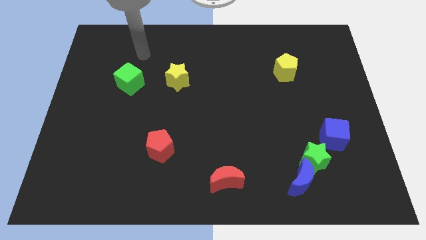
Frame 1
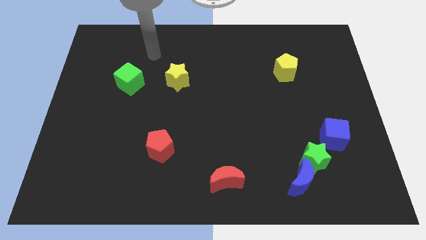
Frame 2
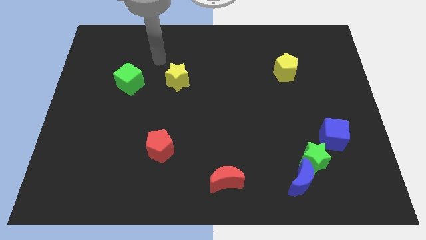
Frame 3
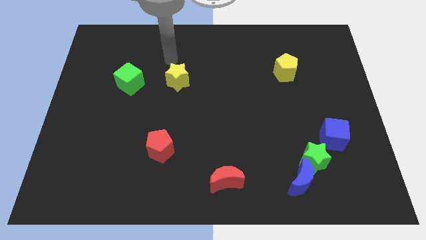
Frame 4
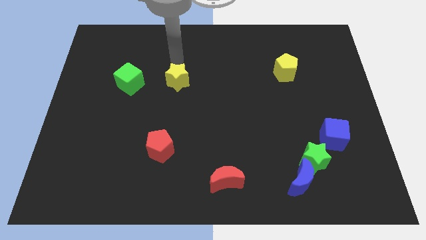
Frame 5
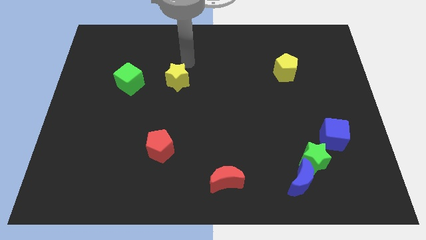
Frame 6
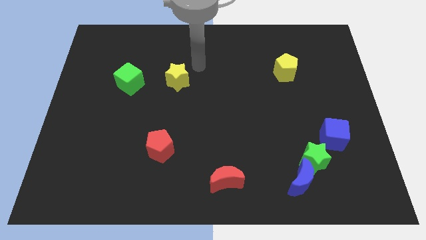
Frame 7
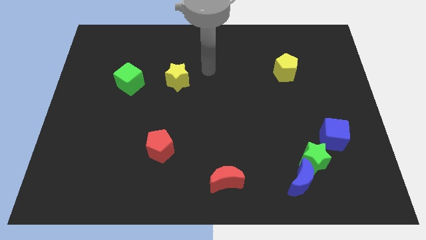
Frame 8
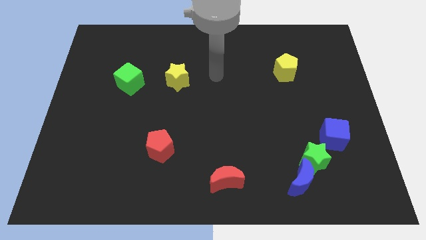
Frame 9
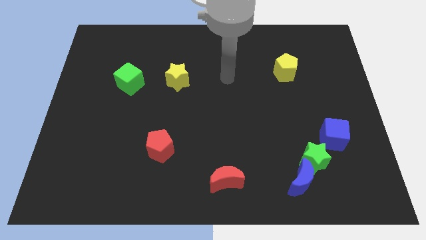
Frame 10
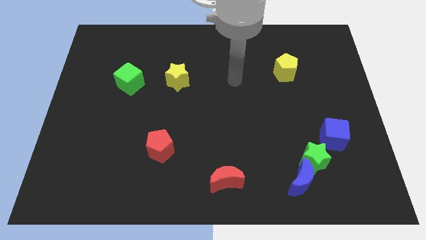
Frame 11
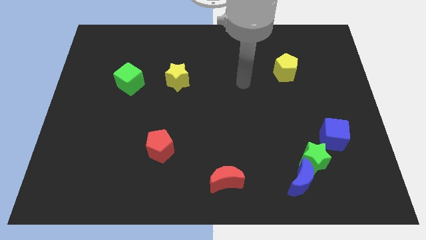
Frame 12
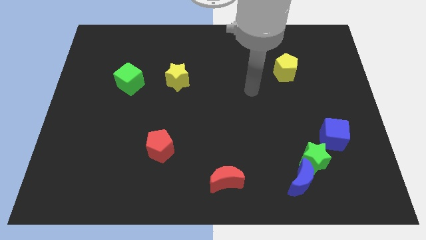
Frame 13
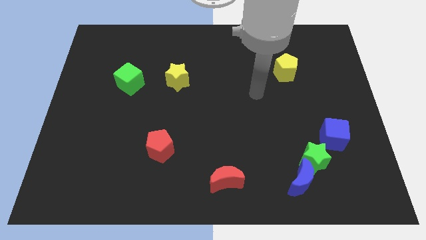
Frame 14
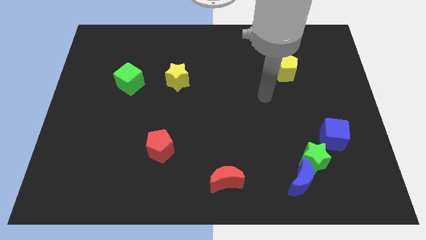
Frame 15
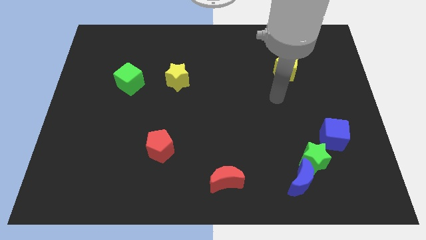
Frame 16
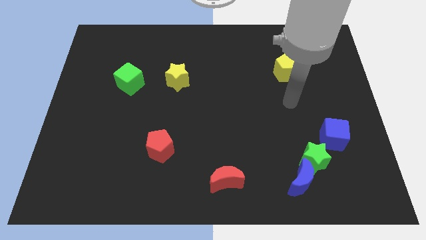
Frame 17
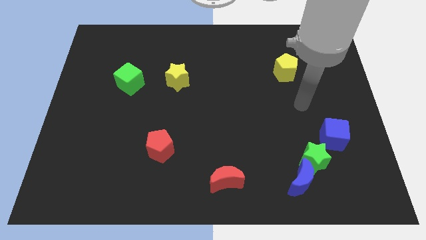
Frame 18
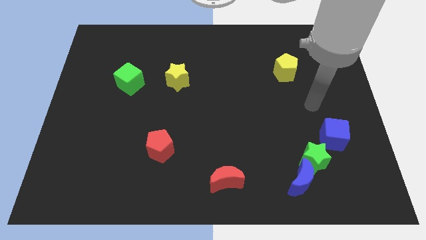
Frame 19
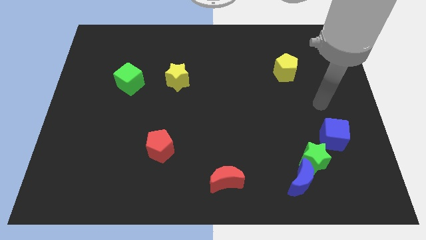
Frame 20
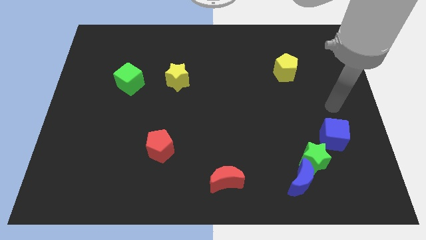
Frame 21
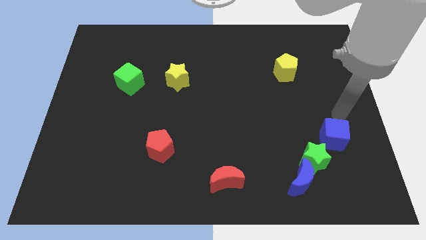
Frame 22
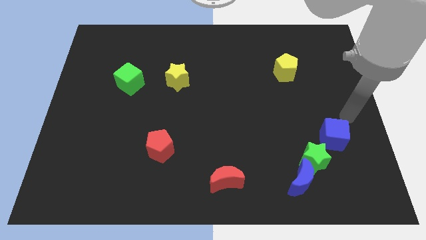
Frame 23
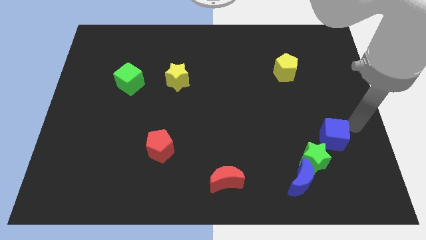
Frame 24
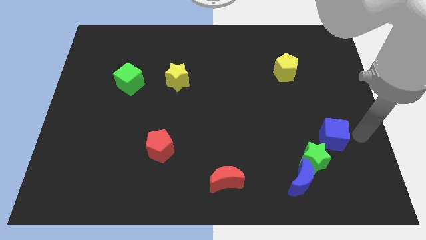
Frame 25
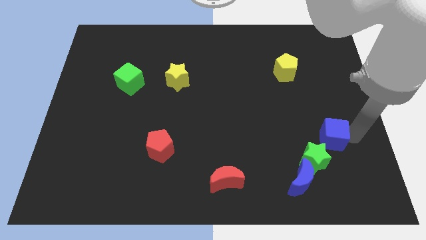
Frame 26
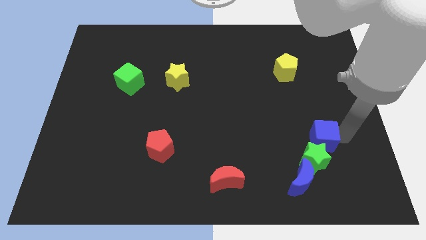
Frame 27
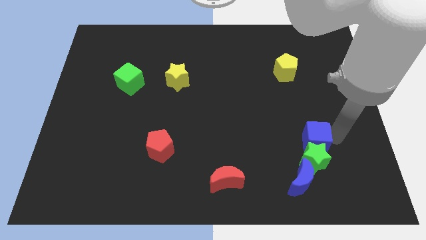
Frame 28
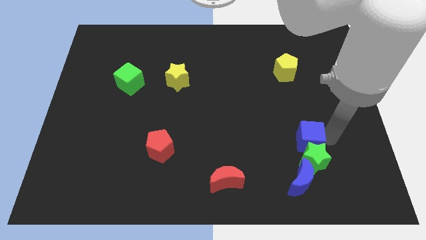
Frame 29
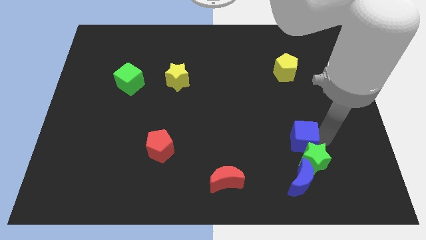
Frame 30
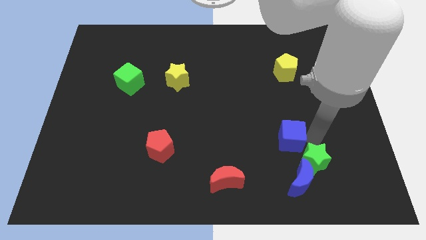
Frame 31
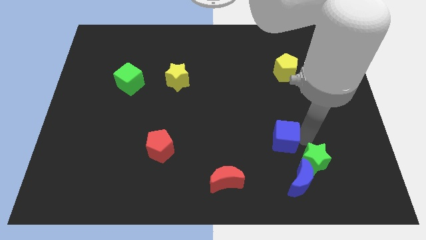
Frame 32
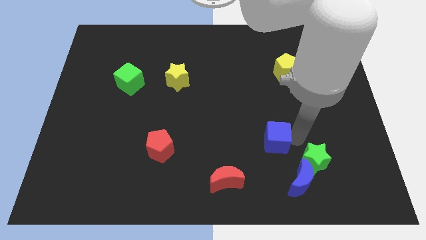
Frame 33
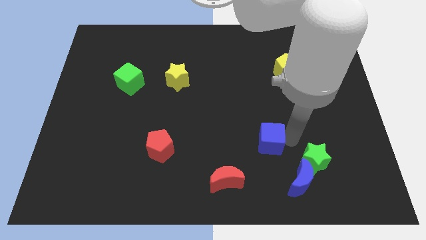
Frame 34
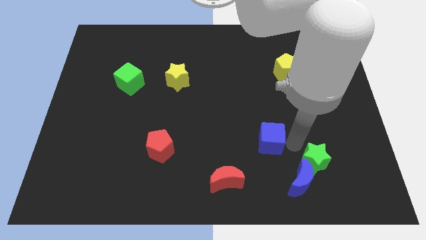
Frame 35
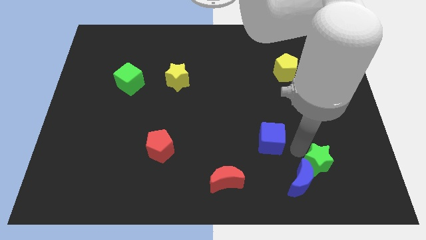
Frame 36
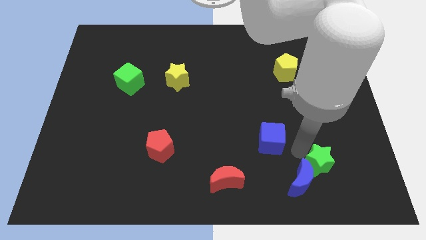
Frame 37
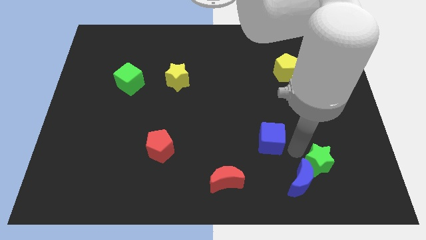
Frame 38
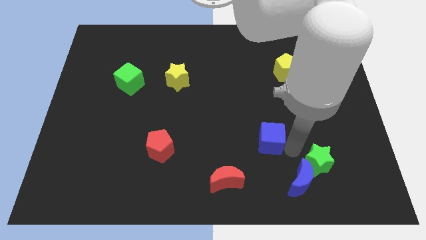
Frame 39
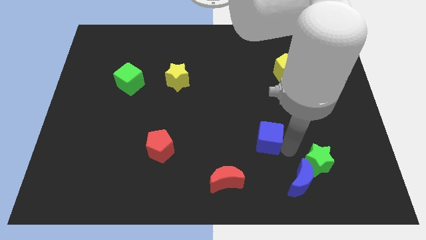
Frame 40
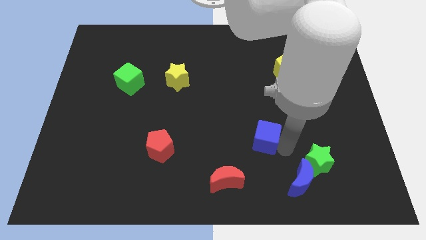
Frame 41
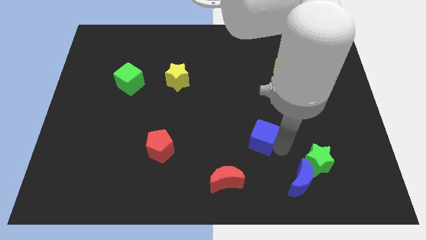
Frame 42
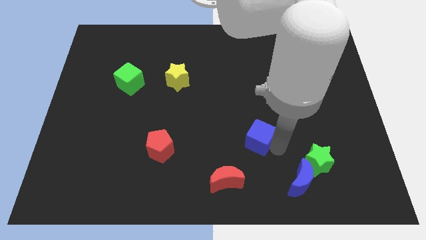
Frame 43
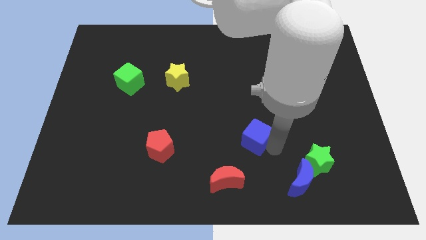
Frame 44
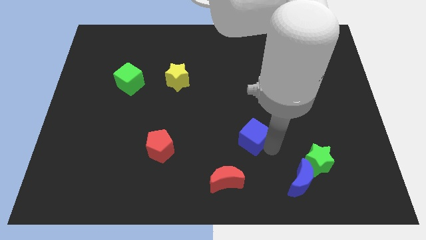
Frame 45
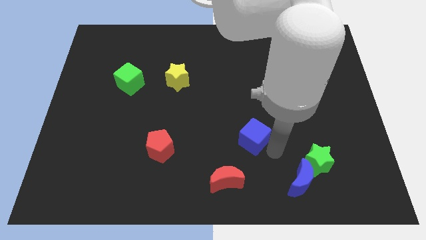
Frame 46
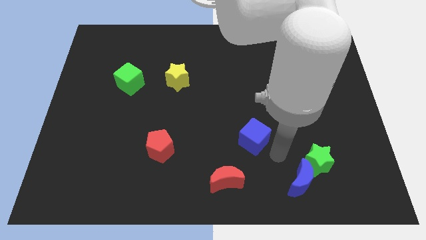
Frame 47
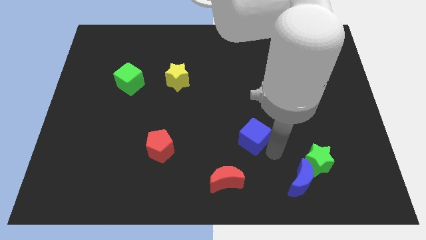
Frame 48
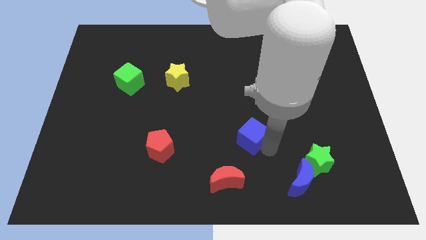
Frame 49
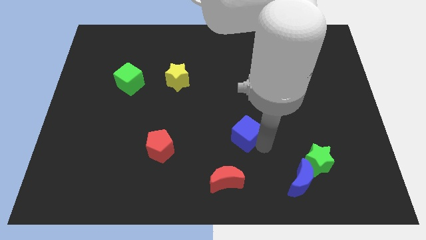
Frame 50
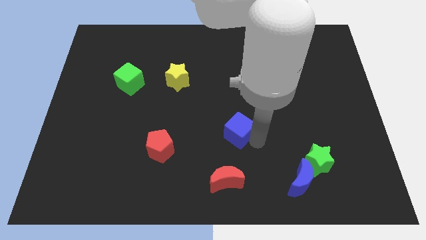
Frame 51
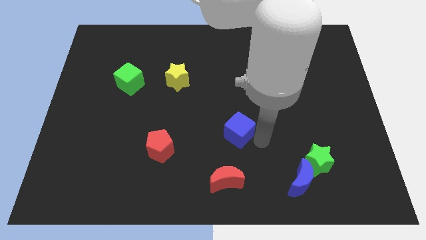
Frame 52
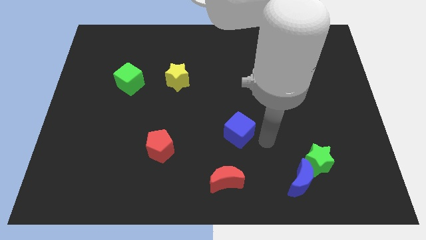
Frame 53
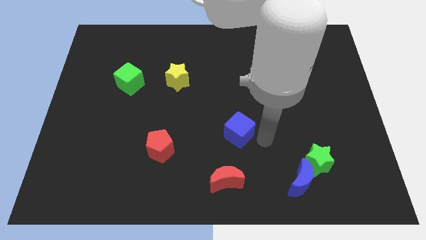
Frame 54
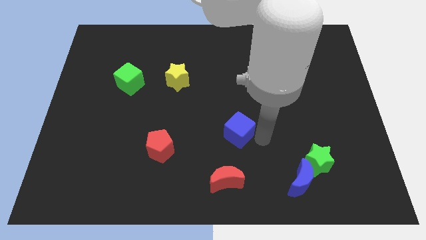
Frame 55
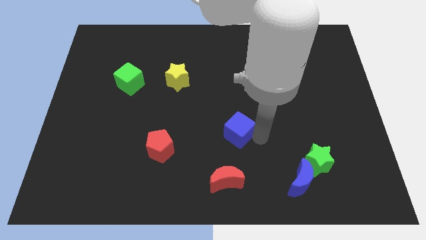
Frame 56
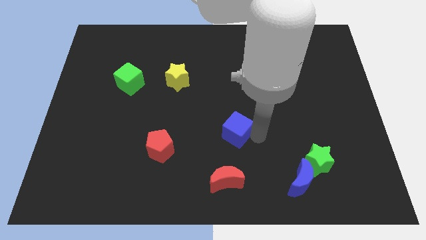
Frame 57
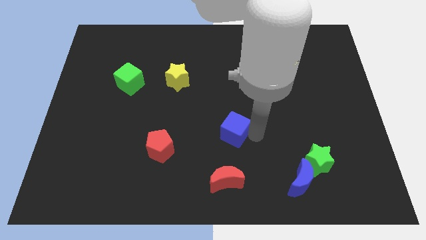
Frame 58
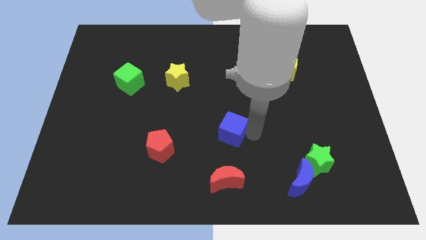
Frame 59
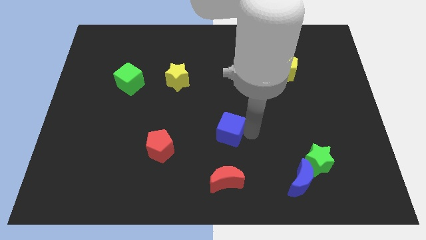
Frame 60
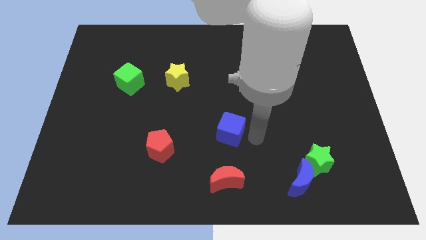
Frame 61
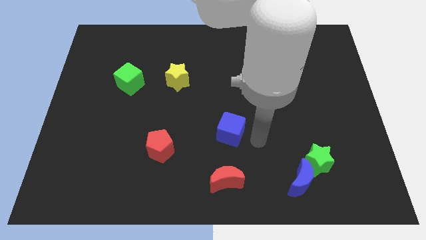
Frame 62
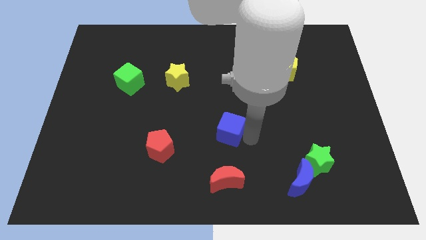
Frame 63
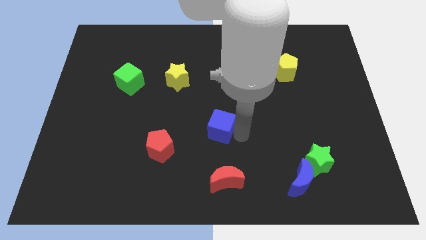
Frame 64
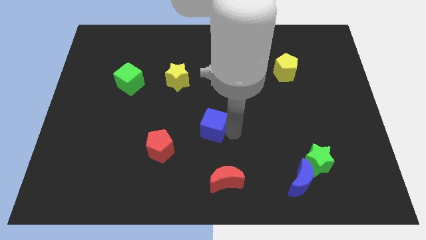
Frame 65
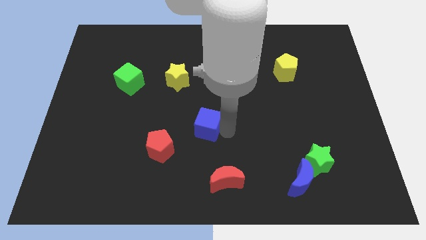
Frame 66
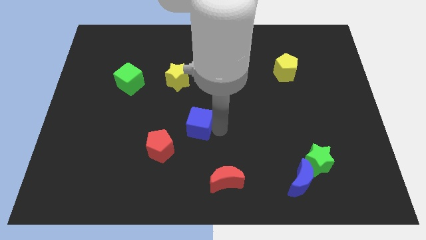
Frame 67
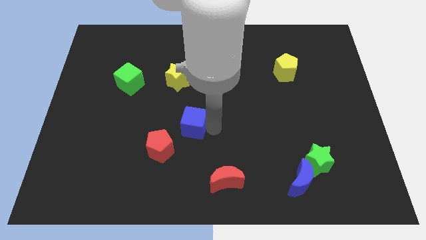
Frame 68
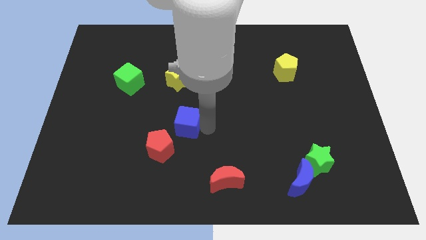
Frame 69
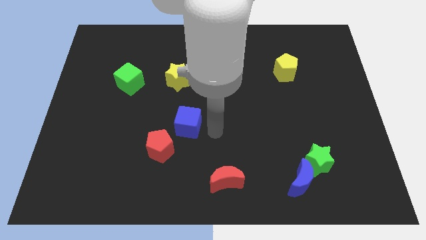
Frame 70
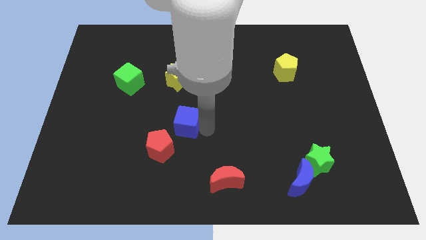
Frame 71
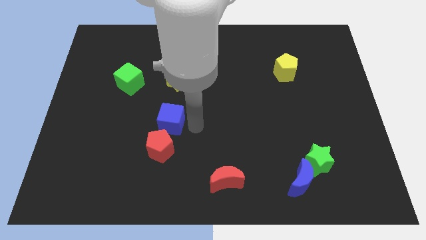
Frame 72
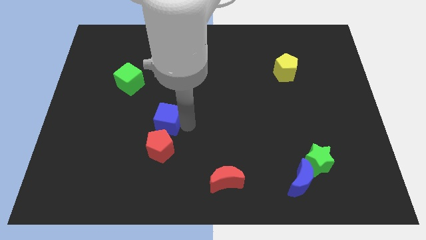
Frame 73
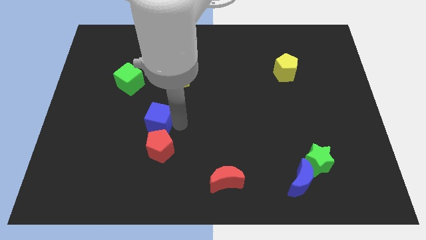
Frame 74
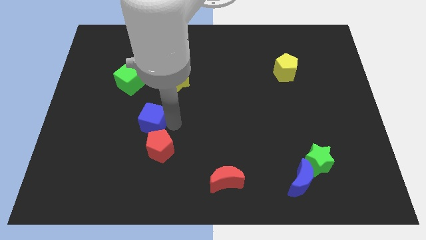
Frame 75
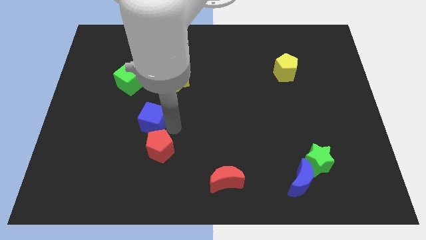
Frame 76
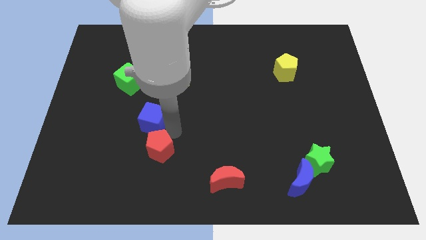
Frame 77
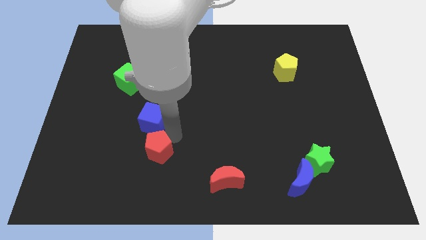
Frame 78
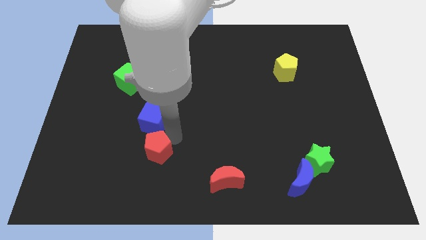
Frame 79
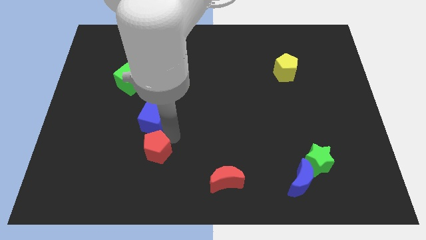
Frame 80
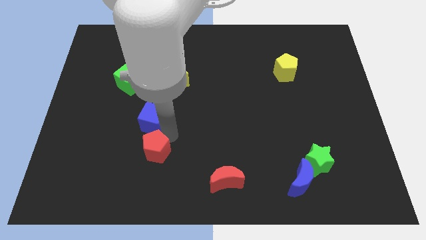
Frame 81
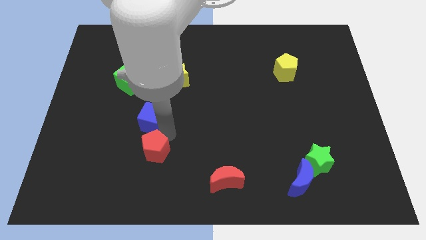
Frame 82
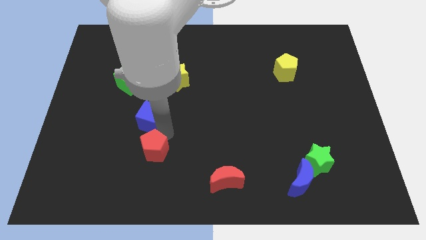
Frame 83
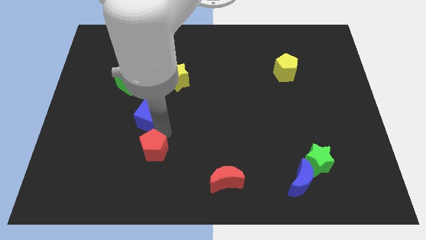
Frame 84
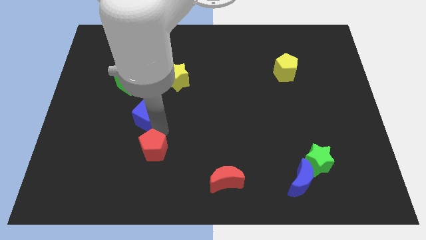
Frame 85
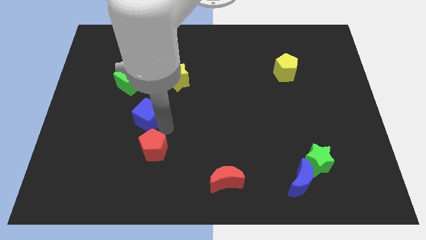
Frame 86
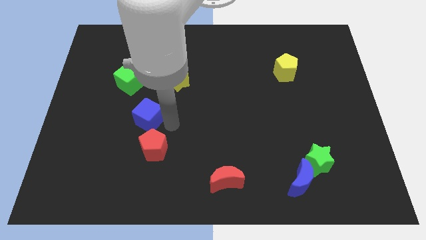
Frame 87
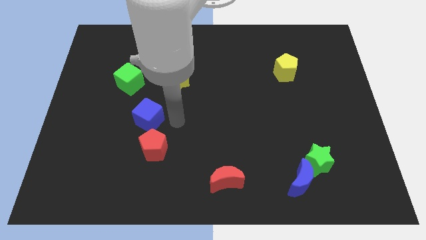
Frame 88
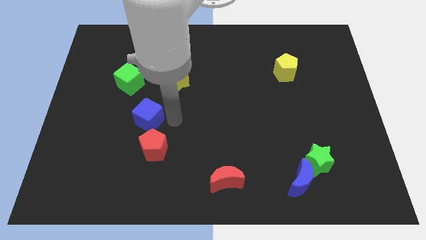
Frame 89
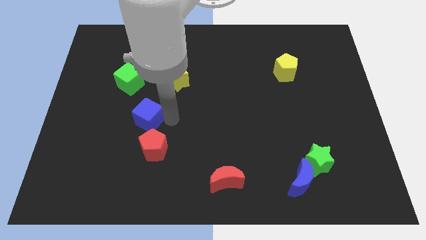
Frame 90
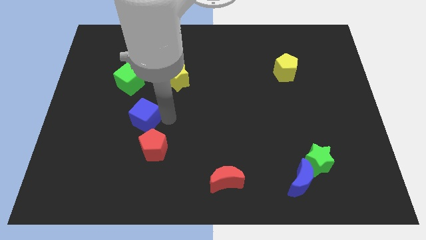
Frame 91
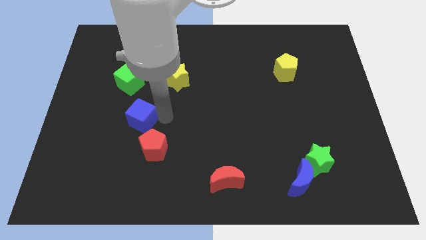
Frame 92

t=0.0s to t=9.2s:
slide the blue cube below the green cube
